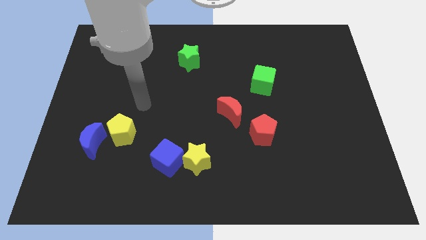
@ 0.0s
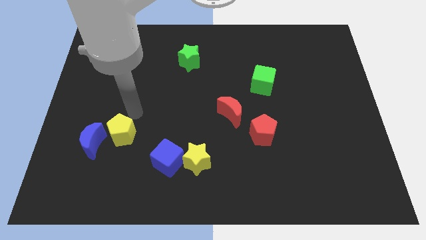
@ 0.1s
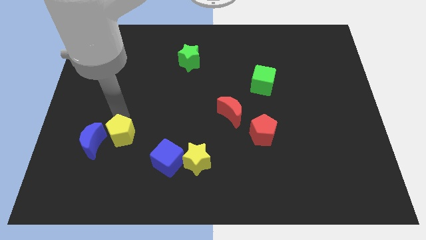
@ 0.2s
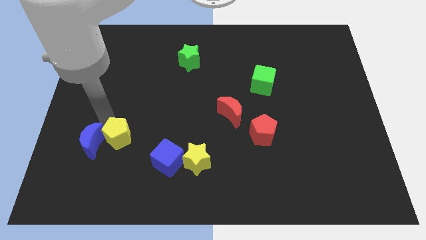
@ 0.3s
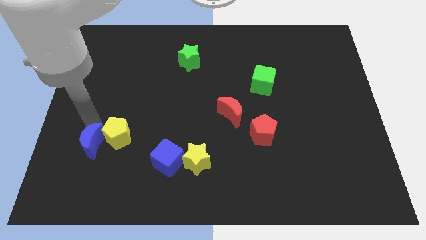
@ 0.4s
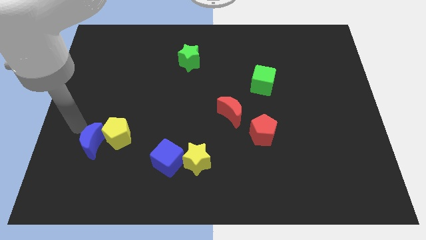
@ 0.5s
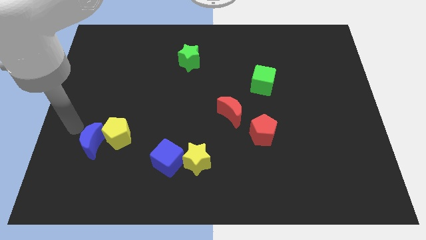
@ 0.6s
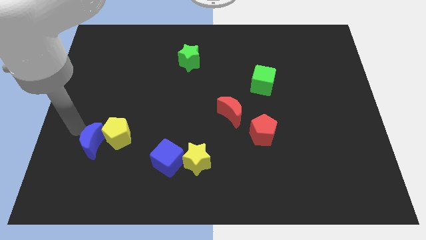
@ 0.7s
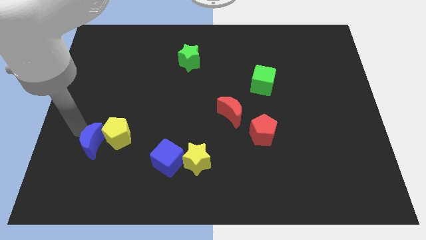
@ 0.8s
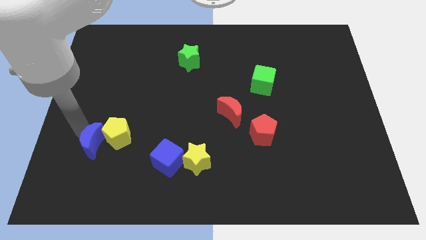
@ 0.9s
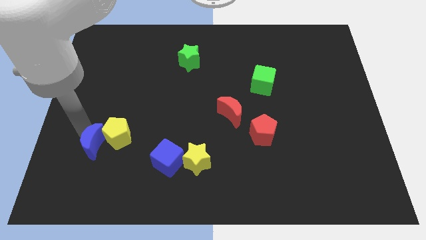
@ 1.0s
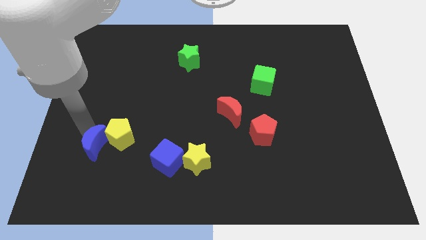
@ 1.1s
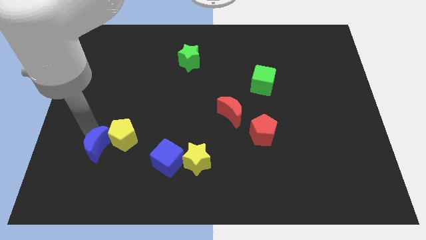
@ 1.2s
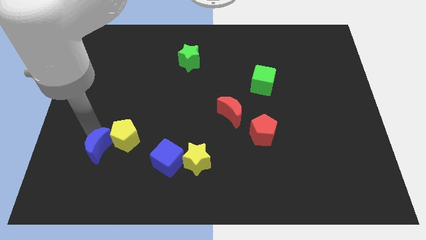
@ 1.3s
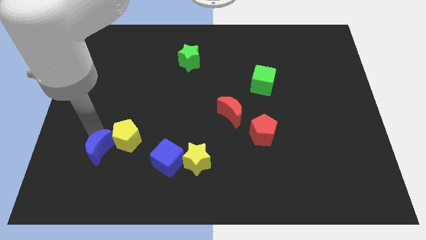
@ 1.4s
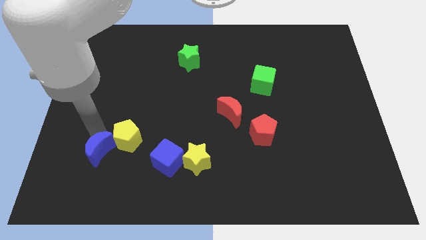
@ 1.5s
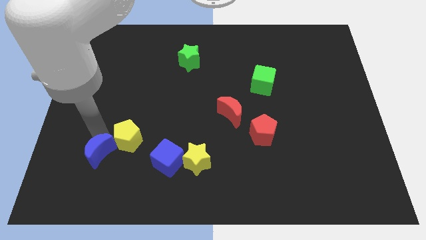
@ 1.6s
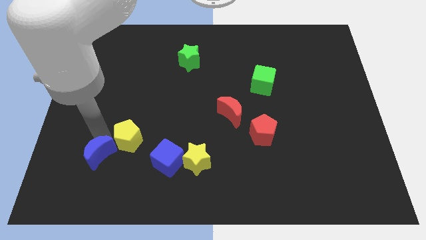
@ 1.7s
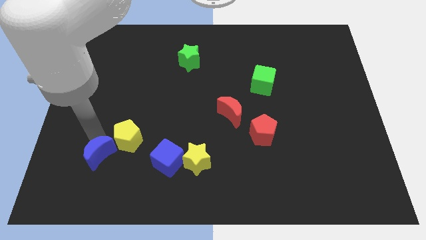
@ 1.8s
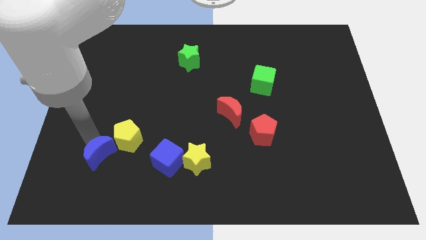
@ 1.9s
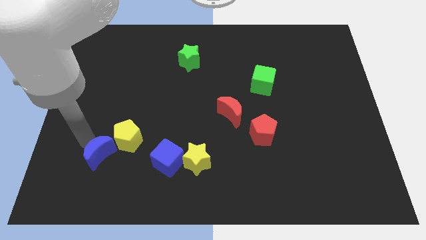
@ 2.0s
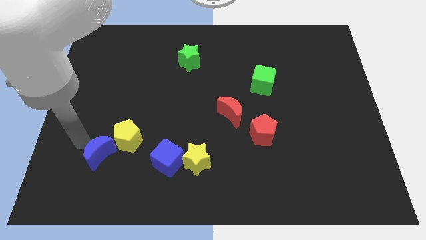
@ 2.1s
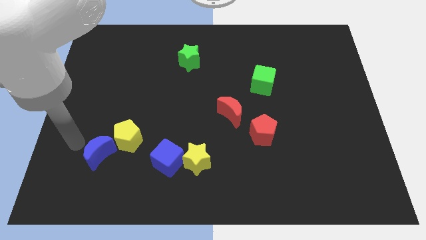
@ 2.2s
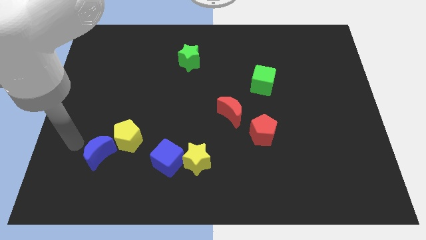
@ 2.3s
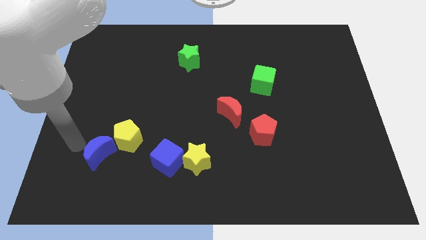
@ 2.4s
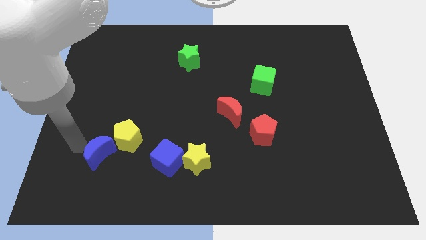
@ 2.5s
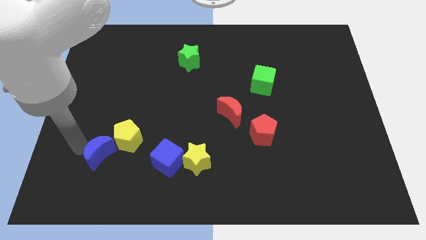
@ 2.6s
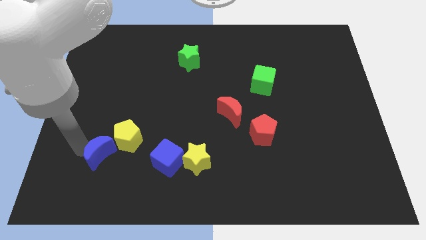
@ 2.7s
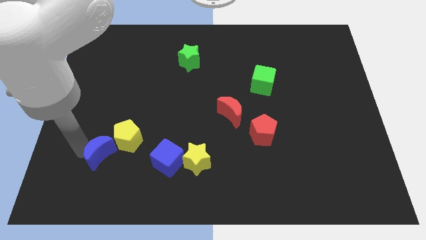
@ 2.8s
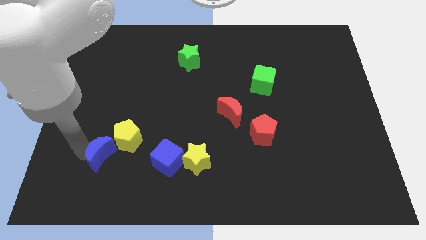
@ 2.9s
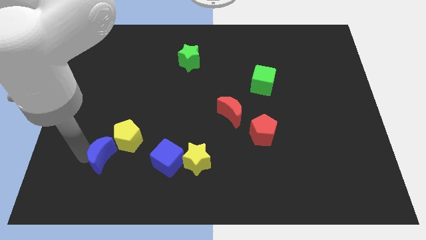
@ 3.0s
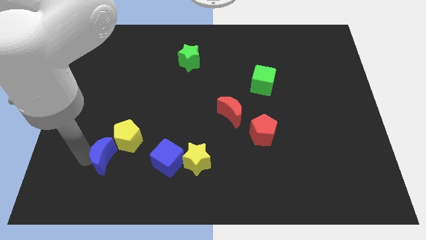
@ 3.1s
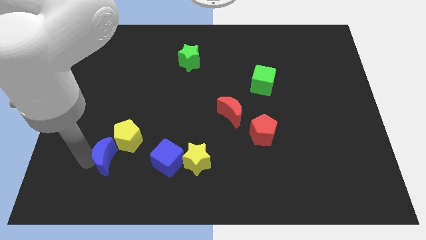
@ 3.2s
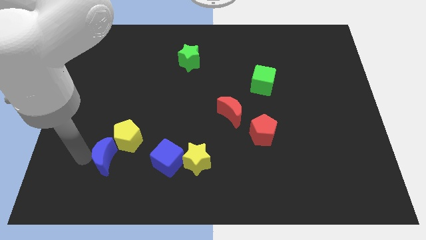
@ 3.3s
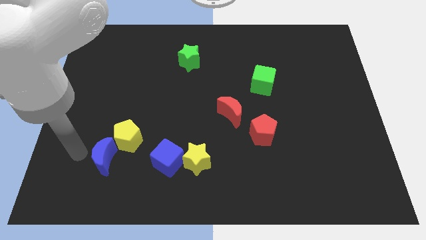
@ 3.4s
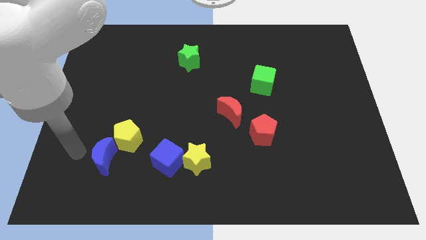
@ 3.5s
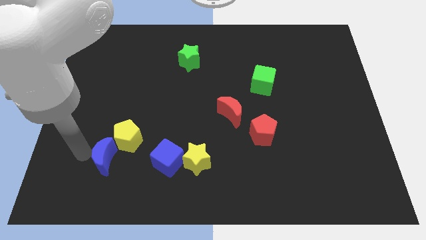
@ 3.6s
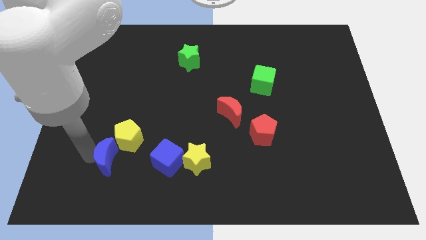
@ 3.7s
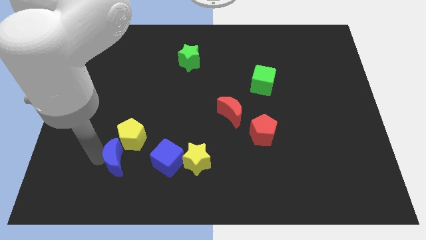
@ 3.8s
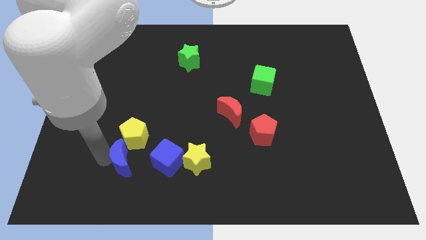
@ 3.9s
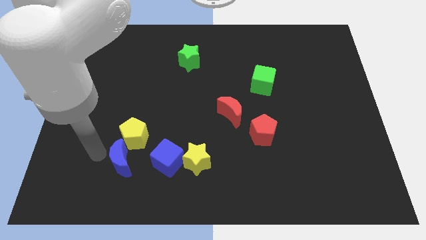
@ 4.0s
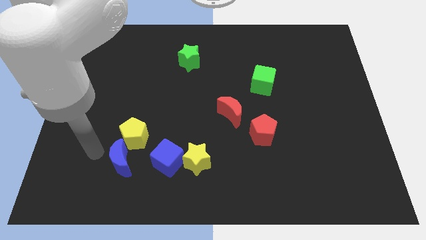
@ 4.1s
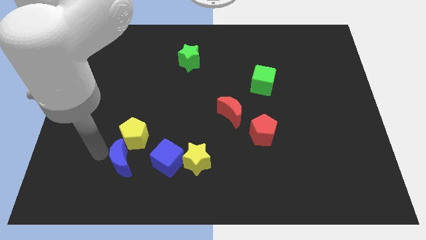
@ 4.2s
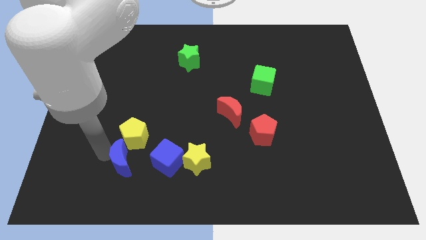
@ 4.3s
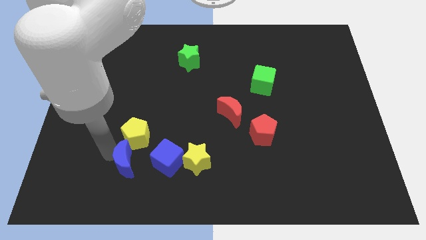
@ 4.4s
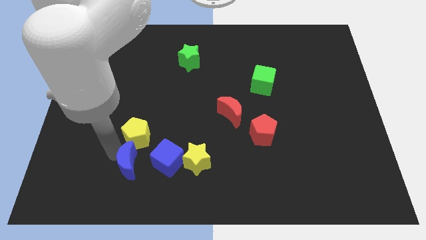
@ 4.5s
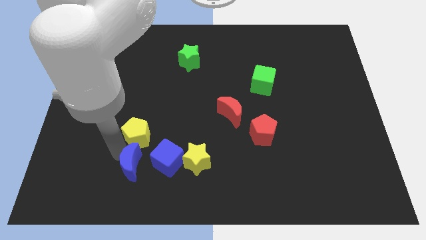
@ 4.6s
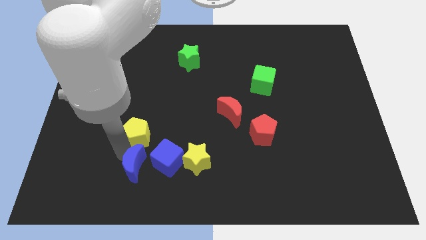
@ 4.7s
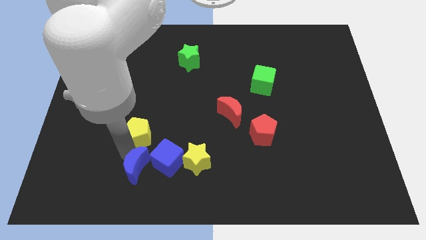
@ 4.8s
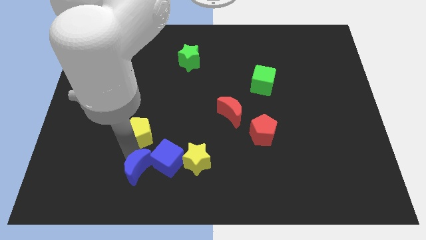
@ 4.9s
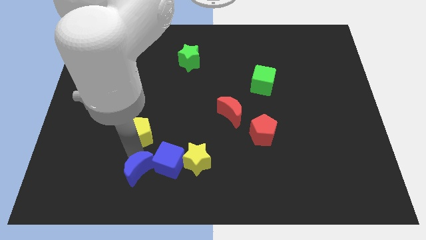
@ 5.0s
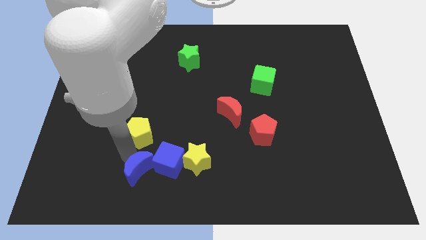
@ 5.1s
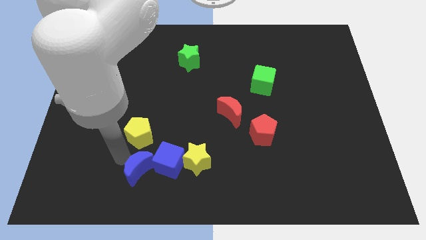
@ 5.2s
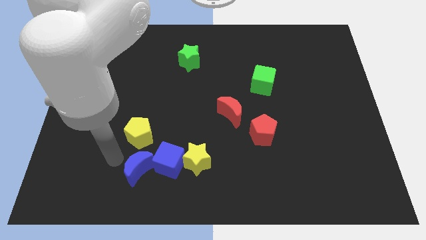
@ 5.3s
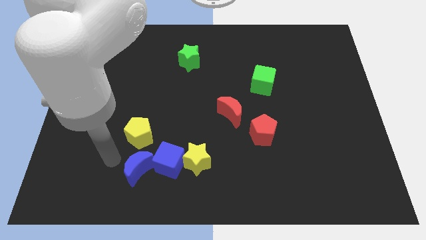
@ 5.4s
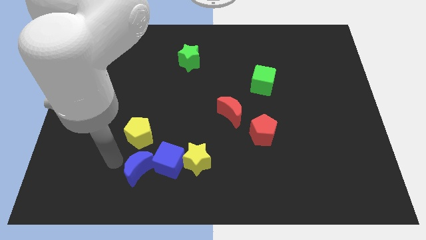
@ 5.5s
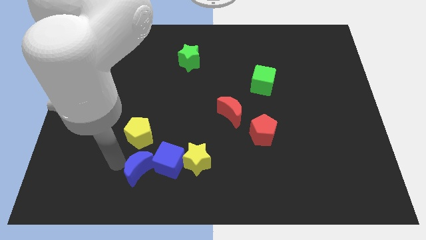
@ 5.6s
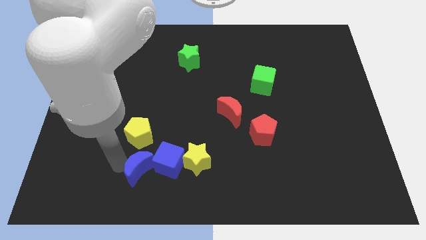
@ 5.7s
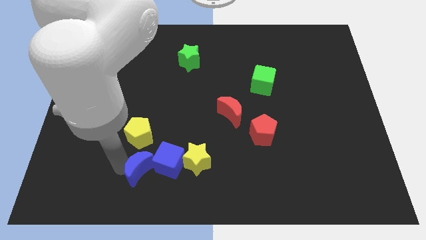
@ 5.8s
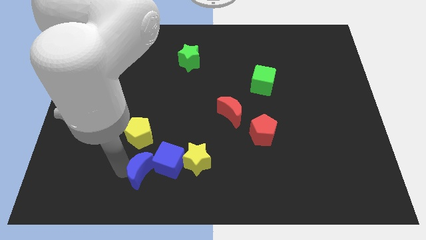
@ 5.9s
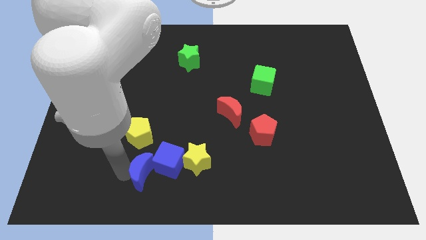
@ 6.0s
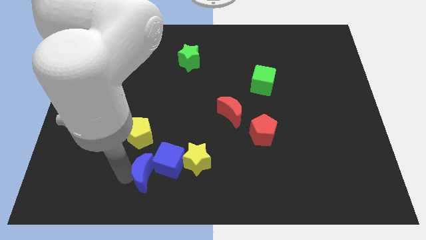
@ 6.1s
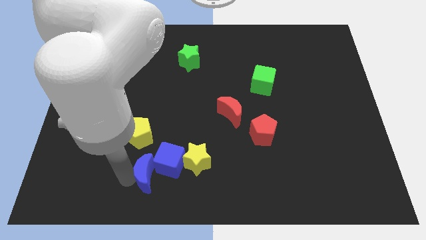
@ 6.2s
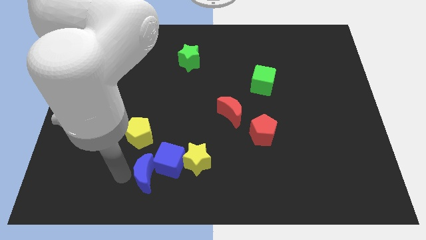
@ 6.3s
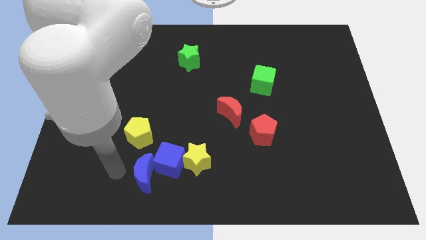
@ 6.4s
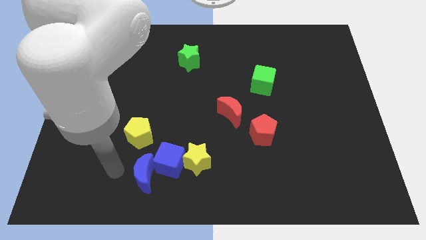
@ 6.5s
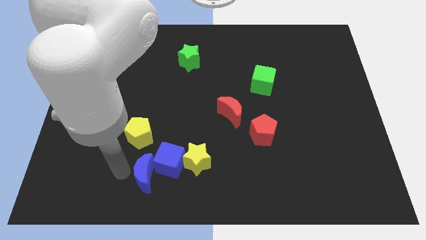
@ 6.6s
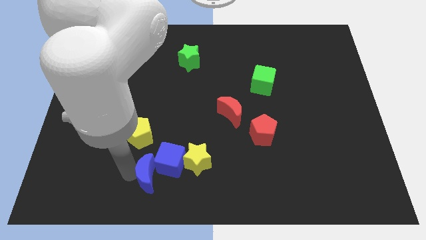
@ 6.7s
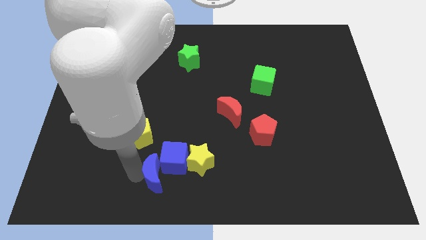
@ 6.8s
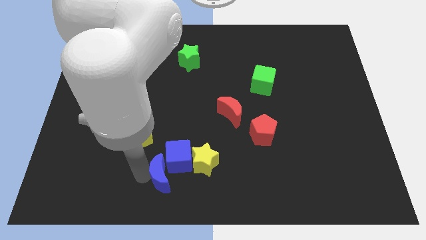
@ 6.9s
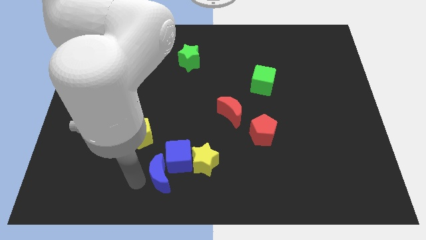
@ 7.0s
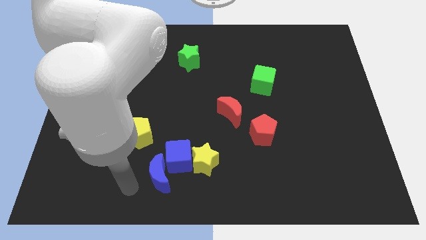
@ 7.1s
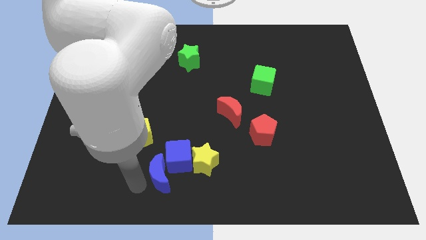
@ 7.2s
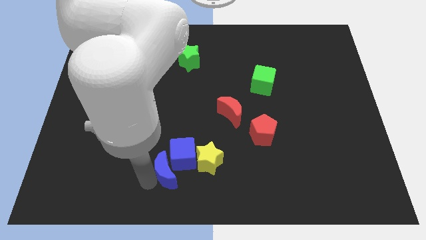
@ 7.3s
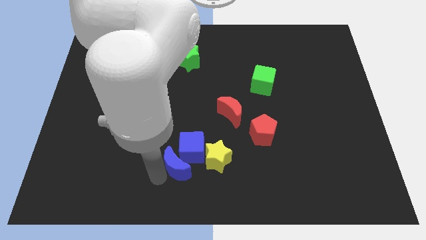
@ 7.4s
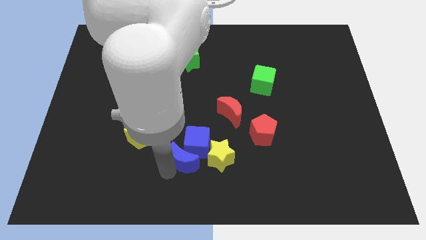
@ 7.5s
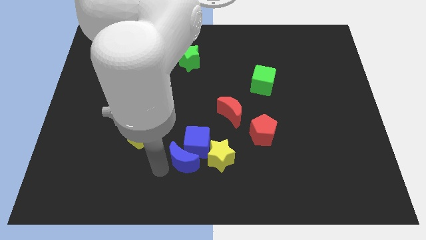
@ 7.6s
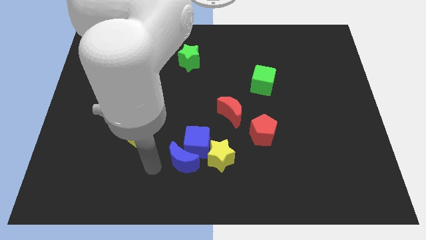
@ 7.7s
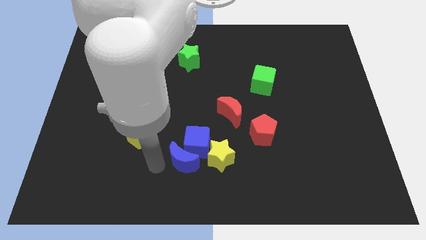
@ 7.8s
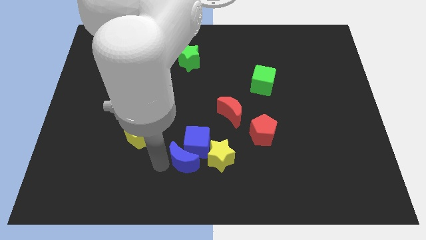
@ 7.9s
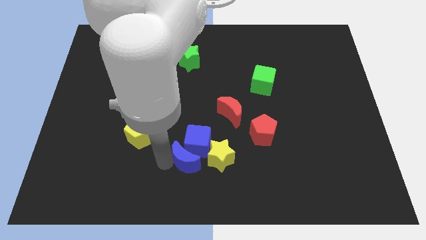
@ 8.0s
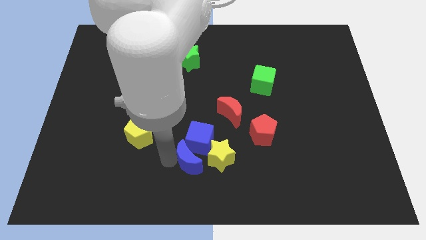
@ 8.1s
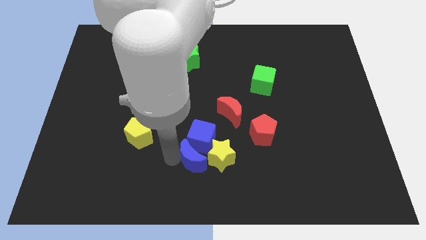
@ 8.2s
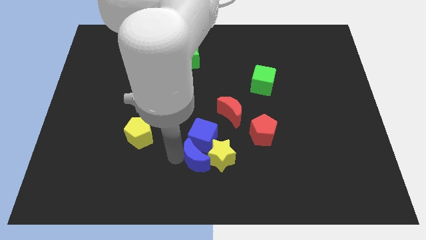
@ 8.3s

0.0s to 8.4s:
push the blue moon towards the yellow star
